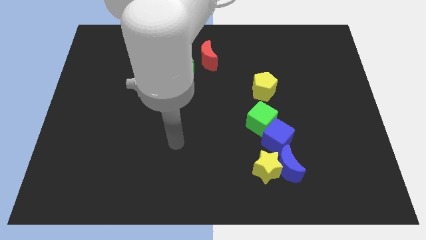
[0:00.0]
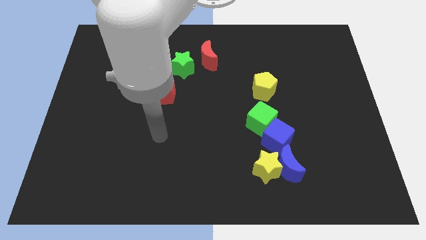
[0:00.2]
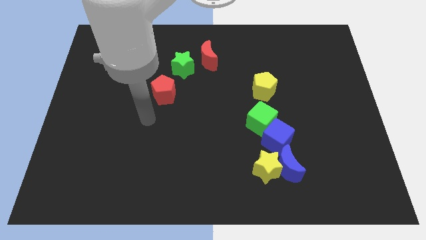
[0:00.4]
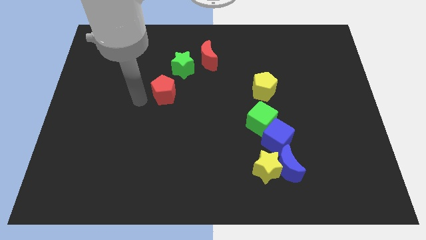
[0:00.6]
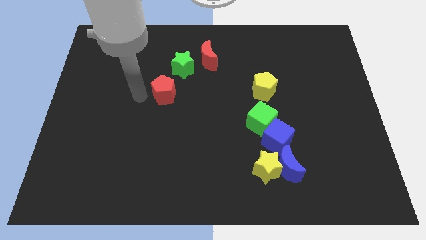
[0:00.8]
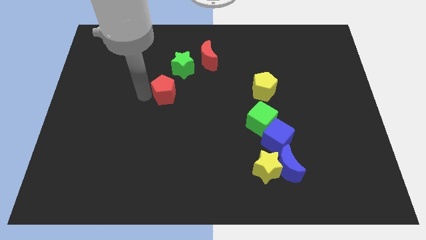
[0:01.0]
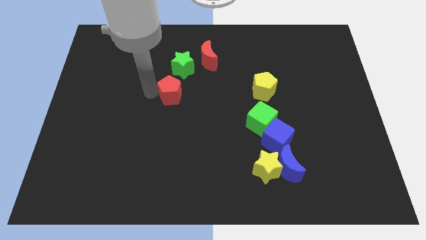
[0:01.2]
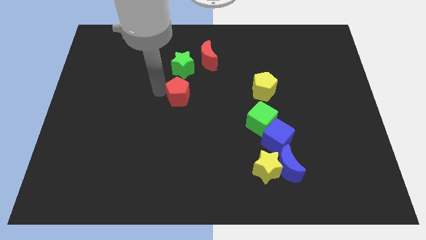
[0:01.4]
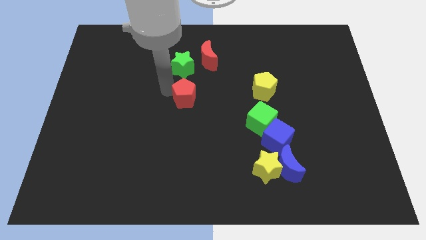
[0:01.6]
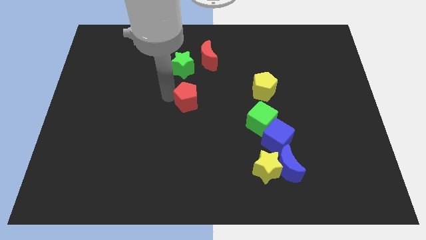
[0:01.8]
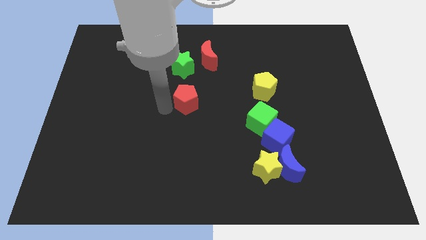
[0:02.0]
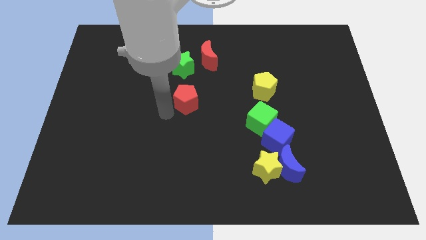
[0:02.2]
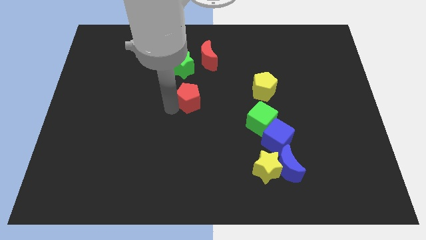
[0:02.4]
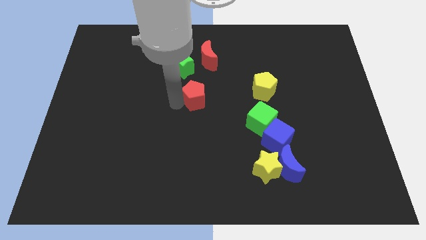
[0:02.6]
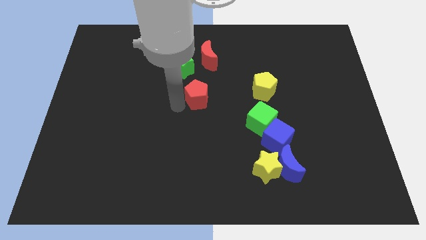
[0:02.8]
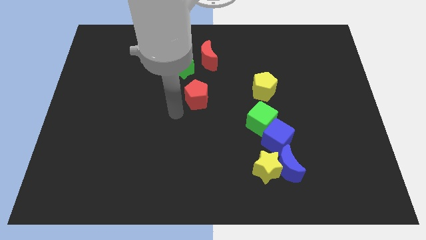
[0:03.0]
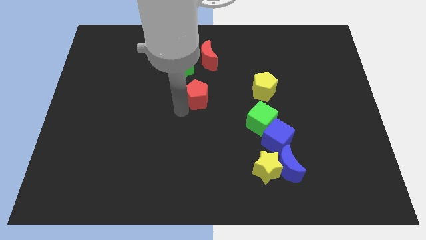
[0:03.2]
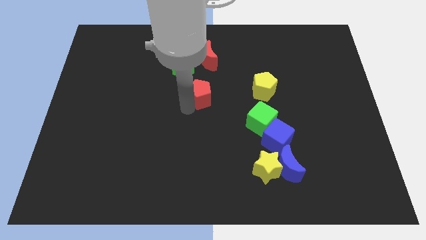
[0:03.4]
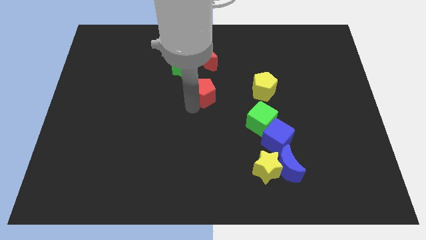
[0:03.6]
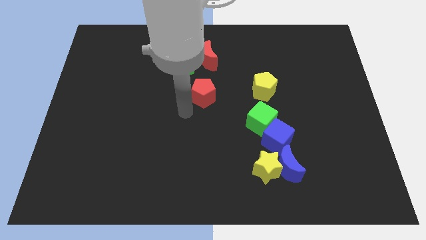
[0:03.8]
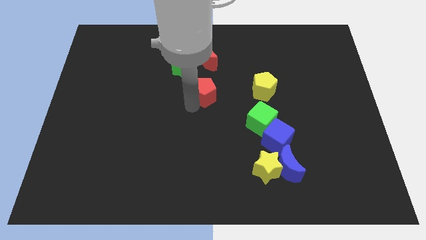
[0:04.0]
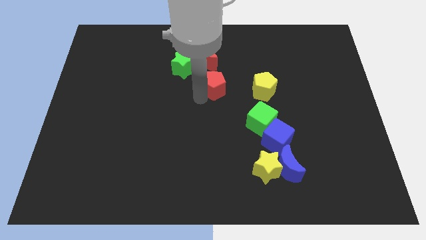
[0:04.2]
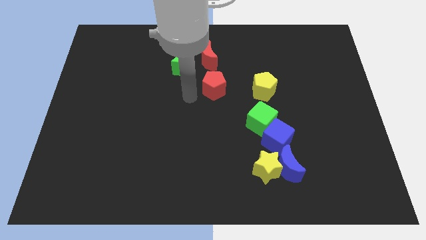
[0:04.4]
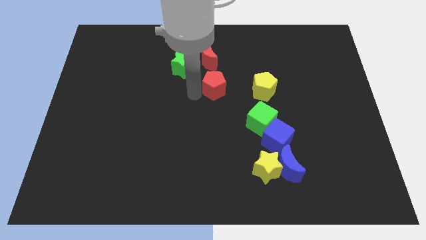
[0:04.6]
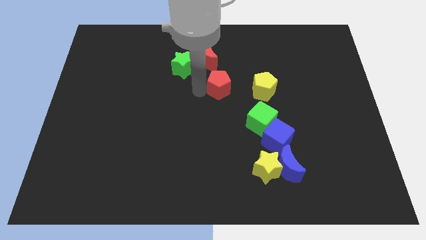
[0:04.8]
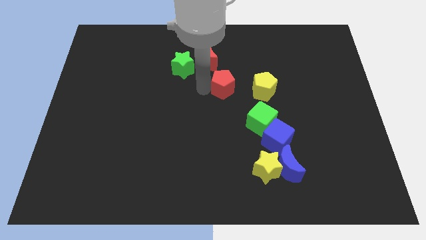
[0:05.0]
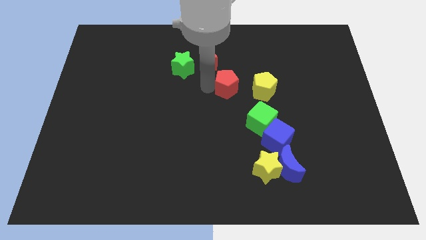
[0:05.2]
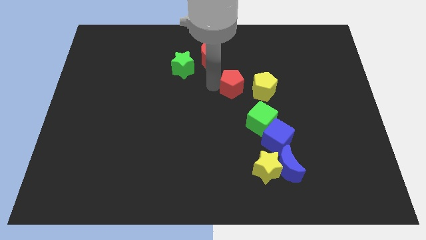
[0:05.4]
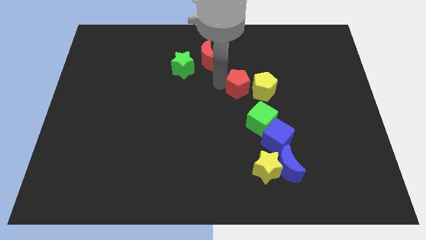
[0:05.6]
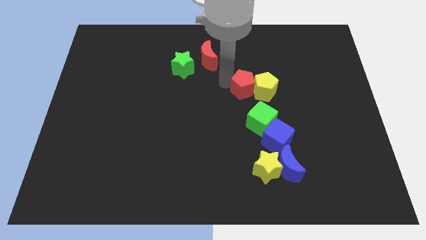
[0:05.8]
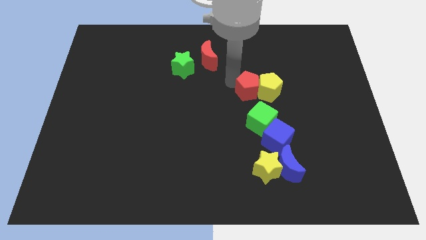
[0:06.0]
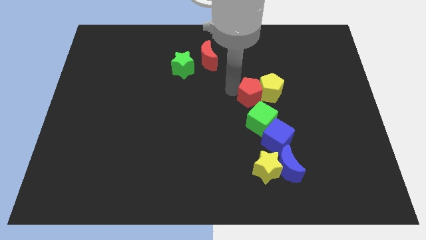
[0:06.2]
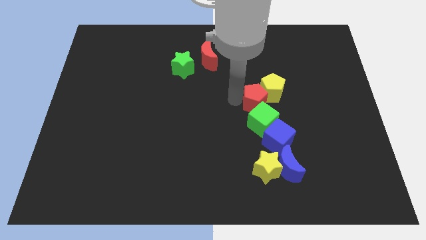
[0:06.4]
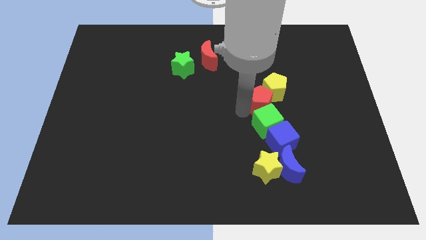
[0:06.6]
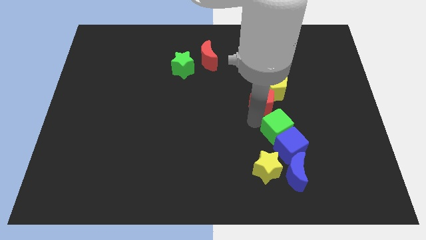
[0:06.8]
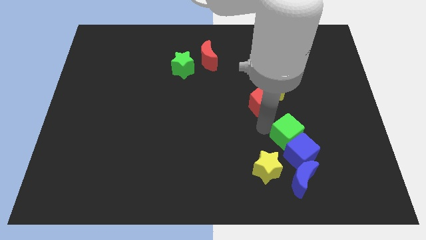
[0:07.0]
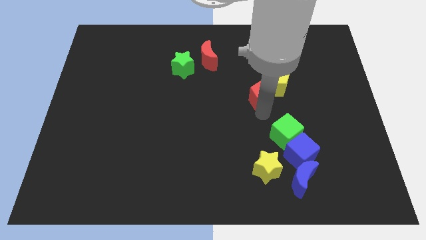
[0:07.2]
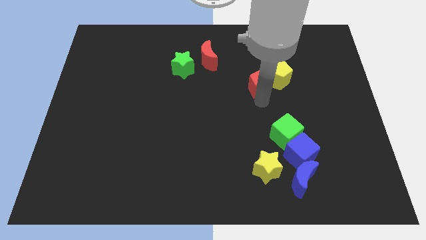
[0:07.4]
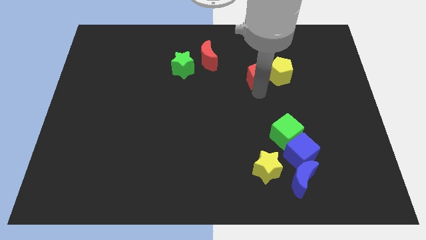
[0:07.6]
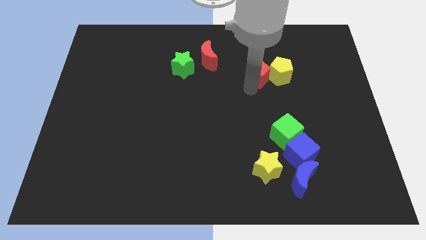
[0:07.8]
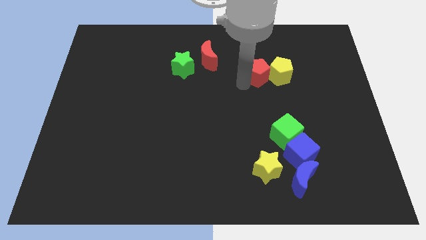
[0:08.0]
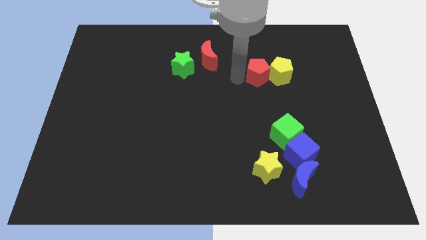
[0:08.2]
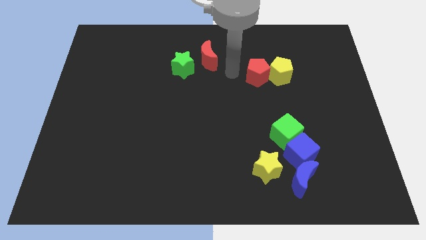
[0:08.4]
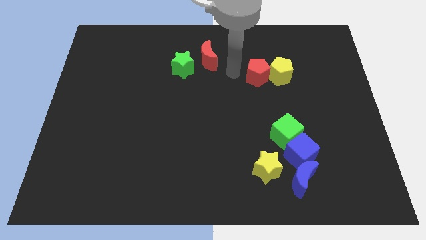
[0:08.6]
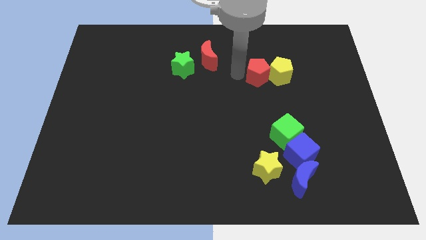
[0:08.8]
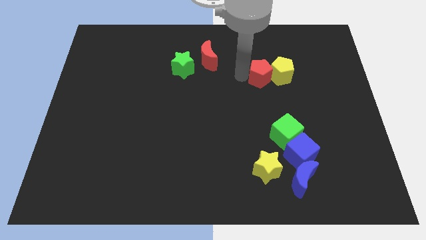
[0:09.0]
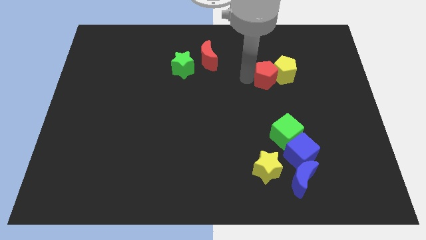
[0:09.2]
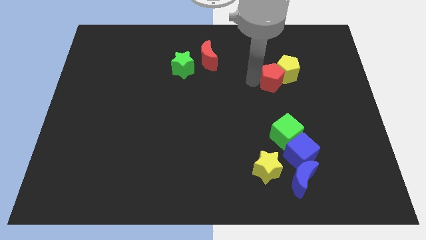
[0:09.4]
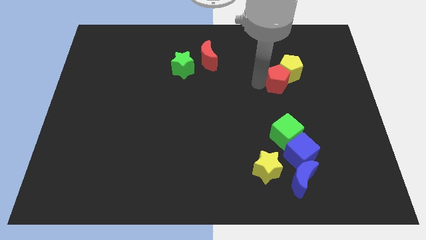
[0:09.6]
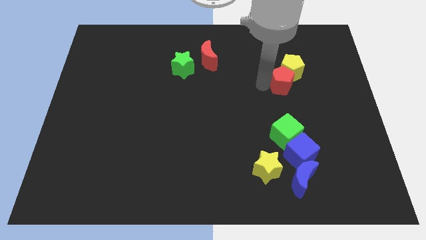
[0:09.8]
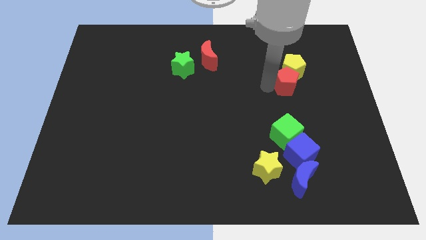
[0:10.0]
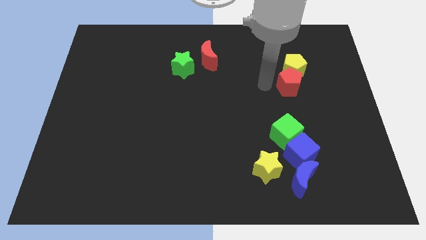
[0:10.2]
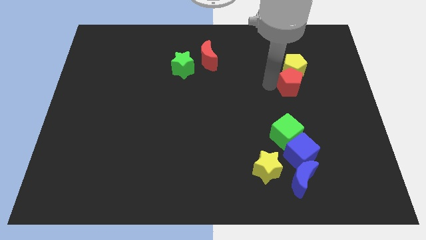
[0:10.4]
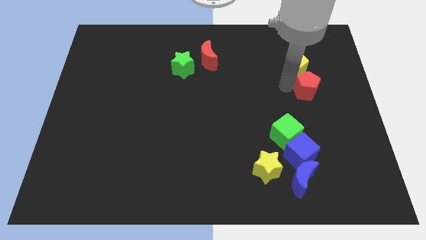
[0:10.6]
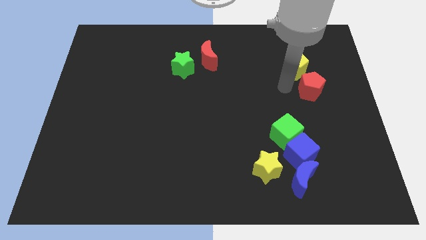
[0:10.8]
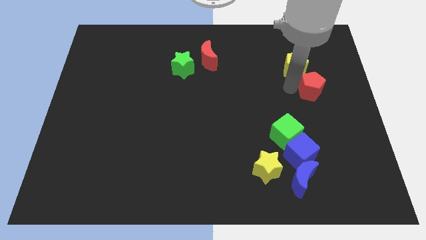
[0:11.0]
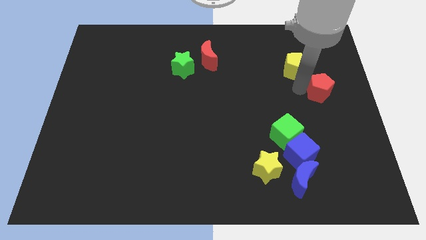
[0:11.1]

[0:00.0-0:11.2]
push the red pentagon to the center right
